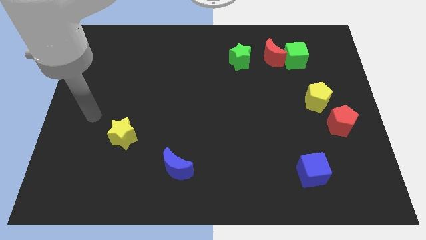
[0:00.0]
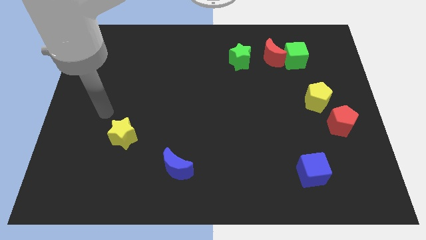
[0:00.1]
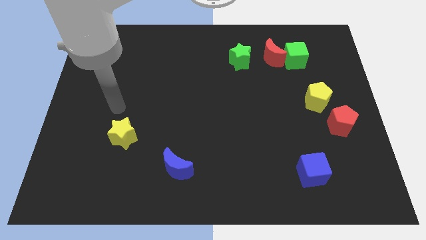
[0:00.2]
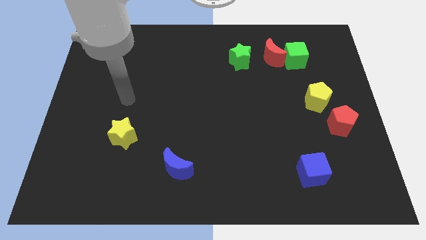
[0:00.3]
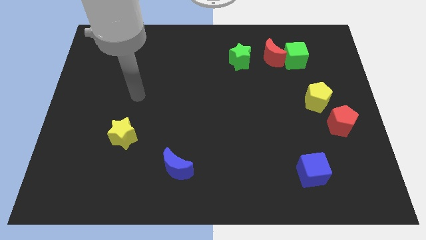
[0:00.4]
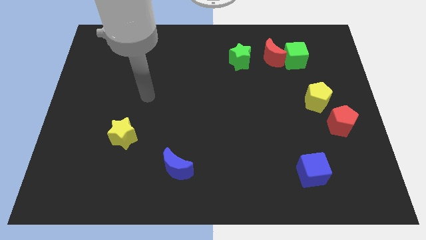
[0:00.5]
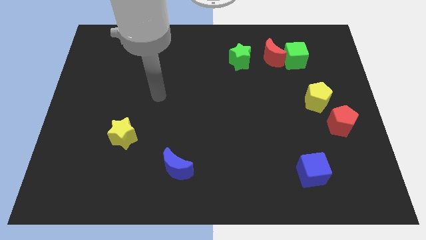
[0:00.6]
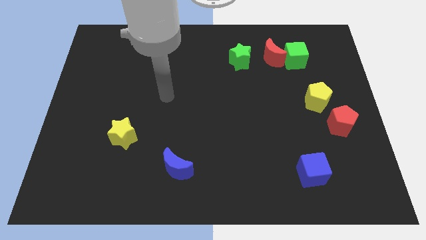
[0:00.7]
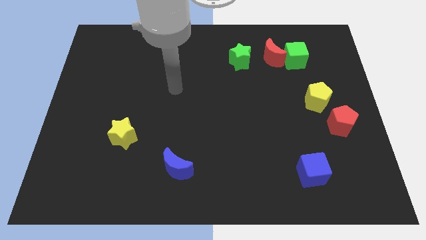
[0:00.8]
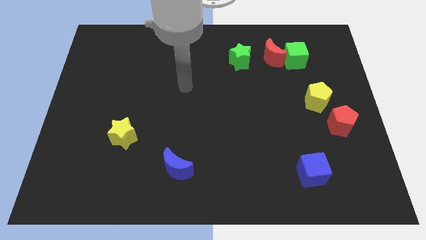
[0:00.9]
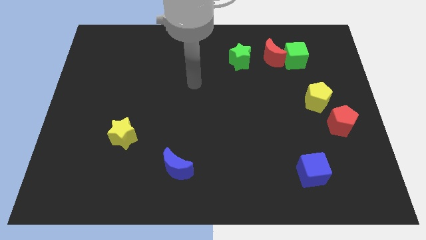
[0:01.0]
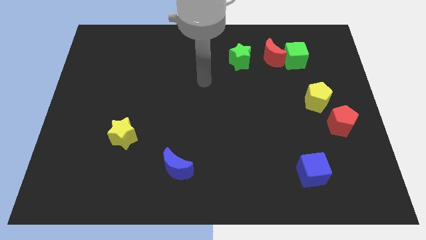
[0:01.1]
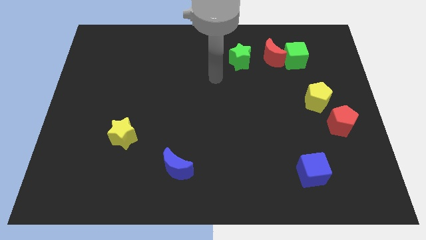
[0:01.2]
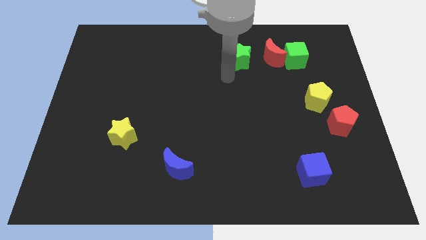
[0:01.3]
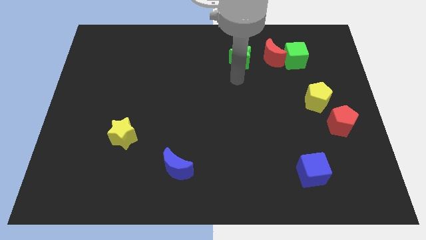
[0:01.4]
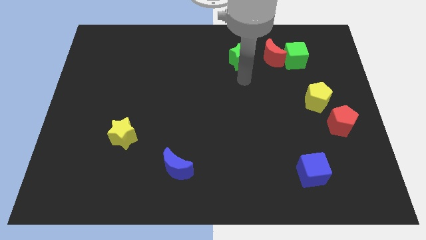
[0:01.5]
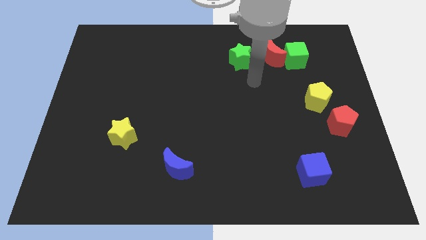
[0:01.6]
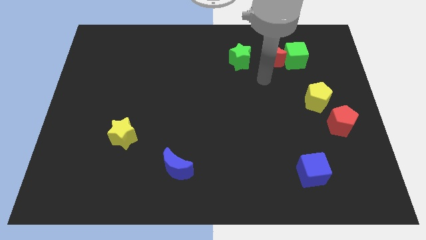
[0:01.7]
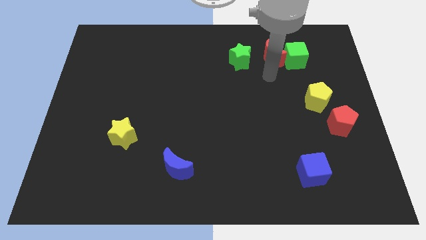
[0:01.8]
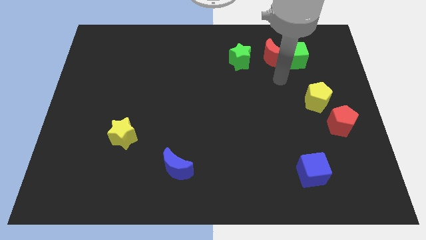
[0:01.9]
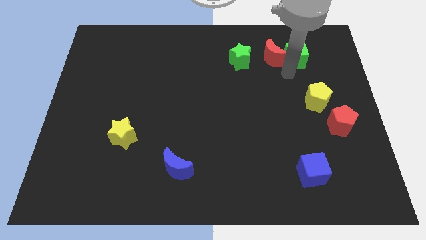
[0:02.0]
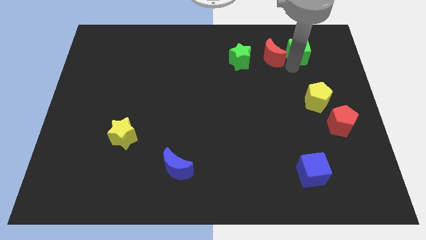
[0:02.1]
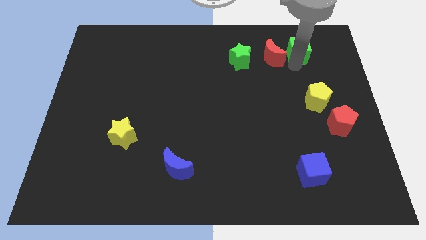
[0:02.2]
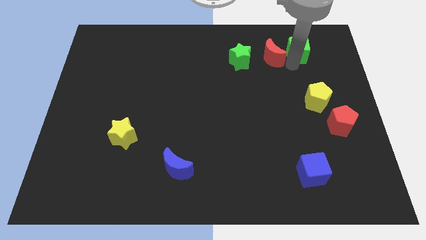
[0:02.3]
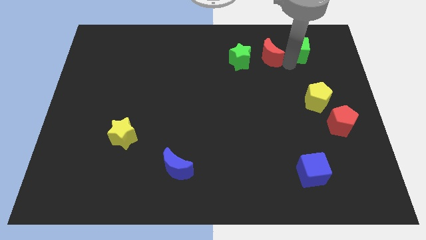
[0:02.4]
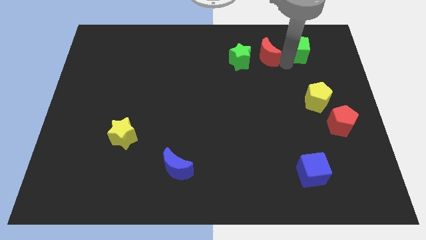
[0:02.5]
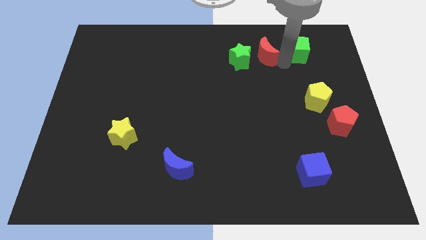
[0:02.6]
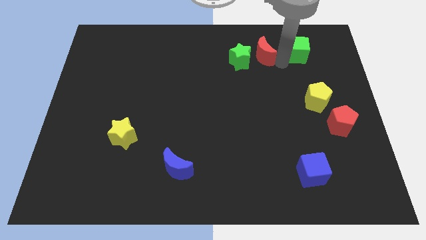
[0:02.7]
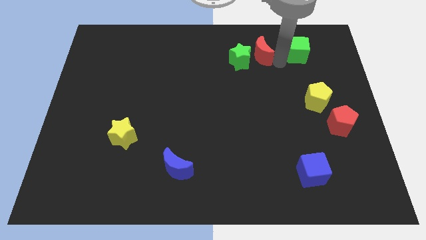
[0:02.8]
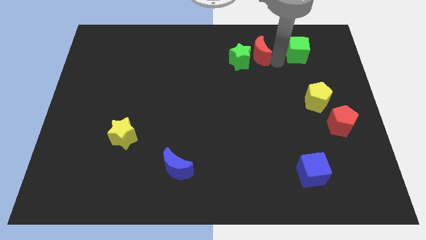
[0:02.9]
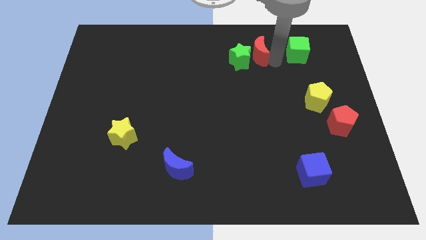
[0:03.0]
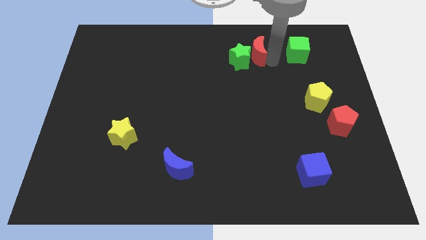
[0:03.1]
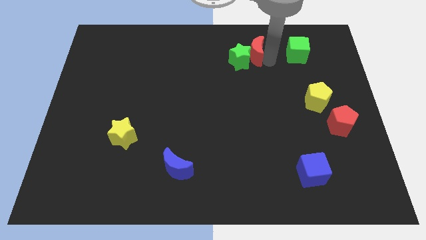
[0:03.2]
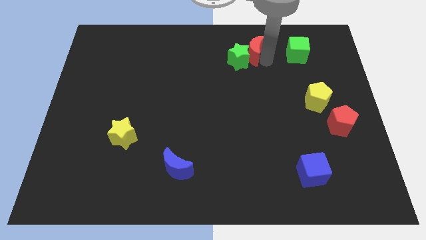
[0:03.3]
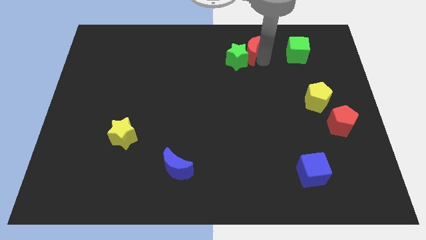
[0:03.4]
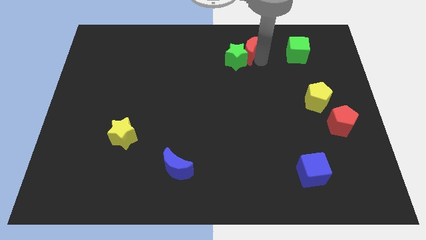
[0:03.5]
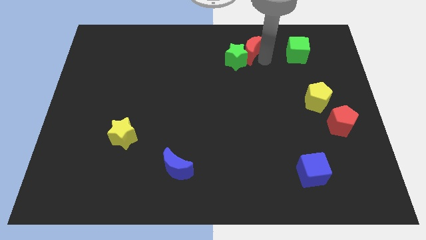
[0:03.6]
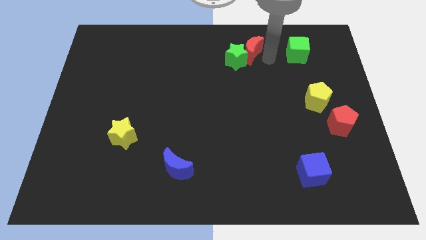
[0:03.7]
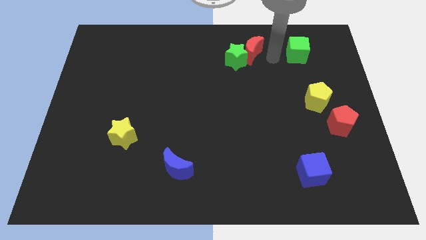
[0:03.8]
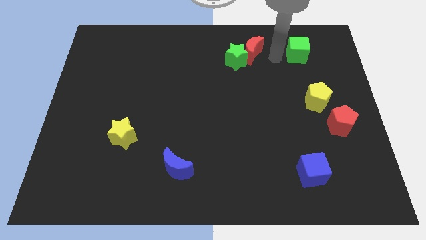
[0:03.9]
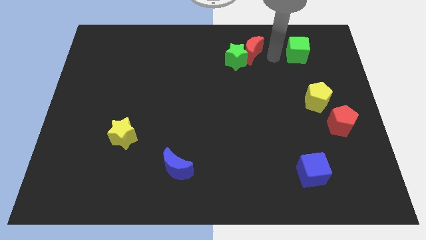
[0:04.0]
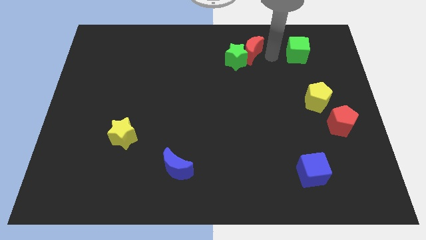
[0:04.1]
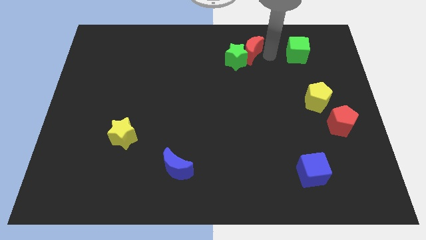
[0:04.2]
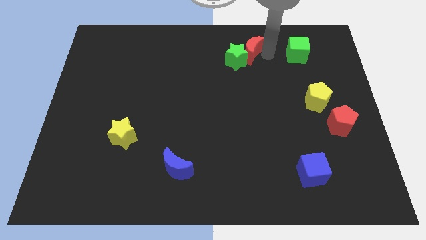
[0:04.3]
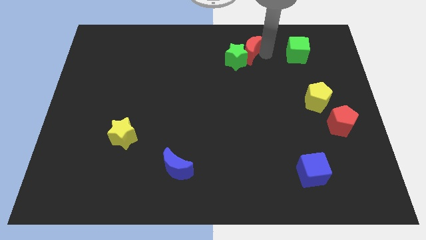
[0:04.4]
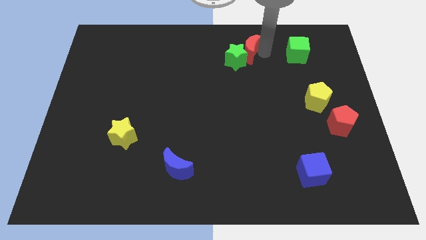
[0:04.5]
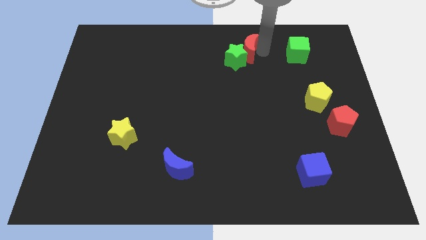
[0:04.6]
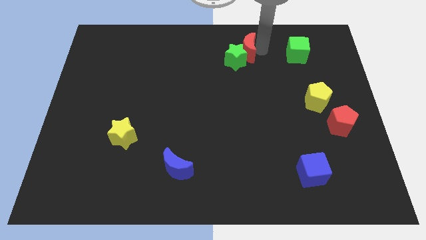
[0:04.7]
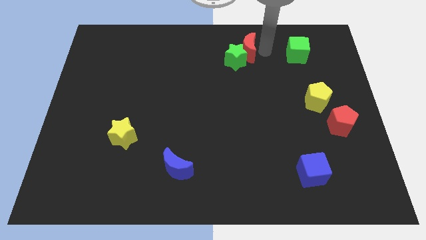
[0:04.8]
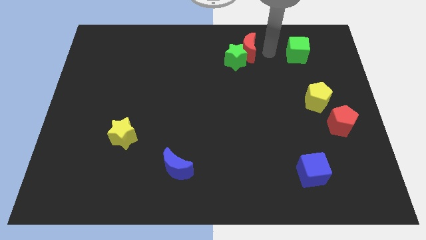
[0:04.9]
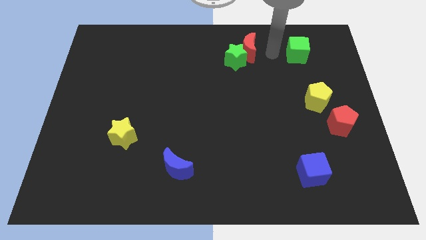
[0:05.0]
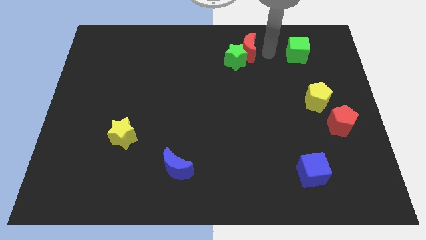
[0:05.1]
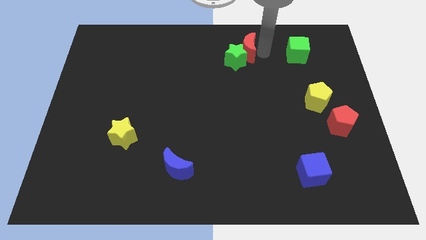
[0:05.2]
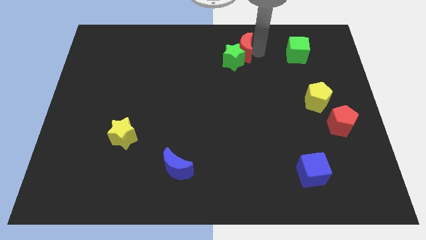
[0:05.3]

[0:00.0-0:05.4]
push the red moon a bit to the left

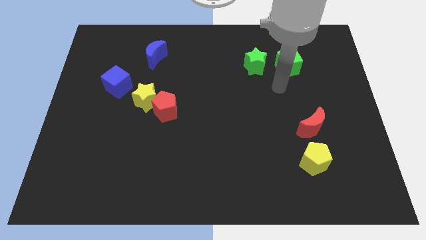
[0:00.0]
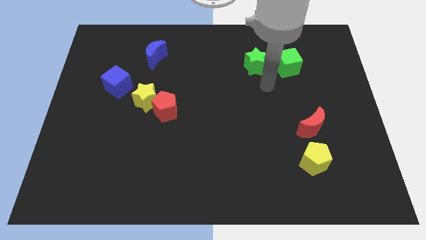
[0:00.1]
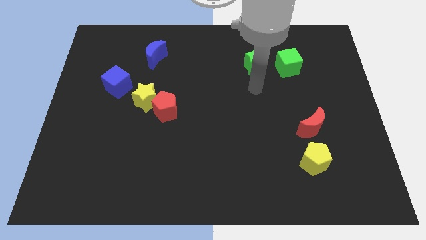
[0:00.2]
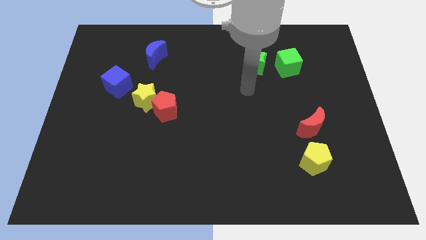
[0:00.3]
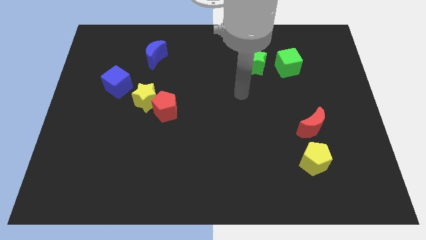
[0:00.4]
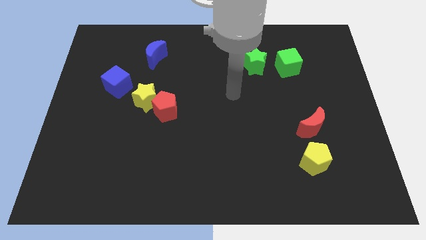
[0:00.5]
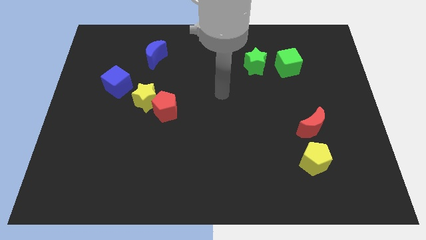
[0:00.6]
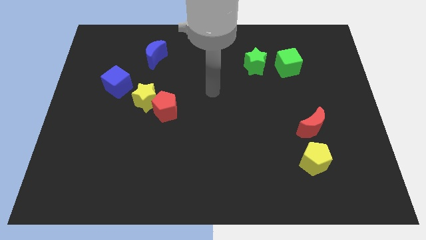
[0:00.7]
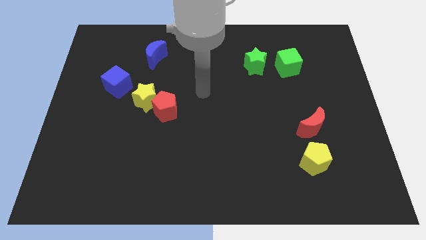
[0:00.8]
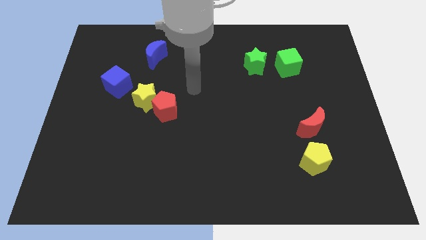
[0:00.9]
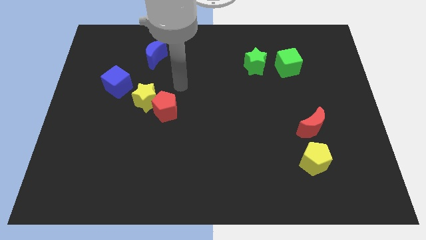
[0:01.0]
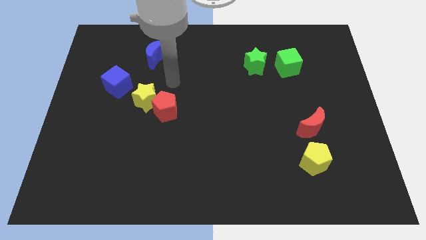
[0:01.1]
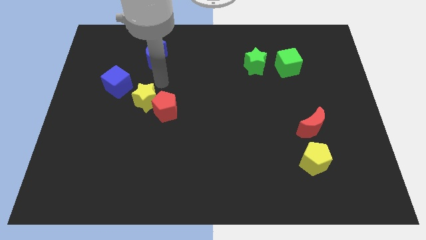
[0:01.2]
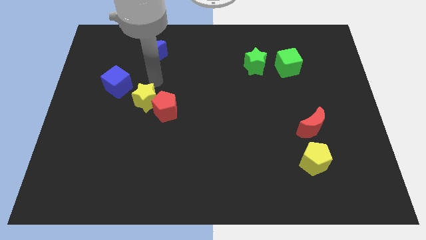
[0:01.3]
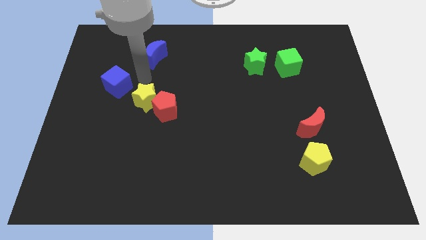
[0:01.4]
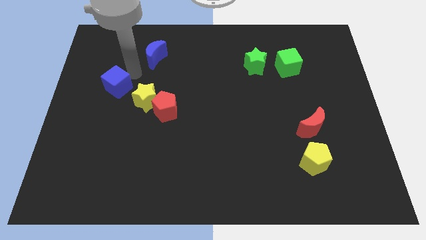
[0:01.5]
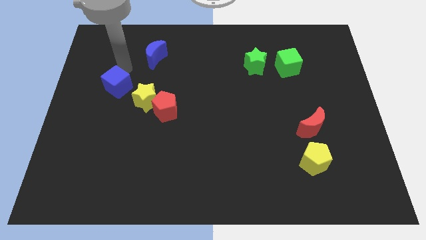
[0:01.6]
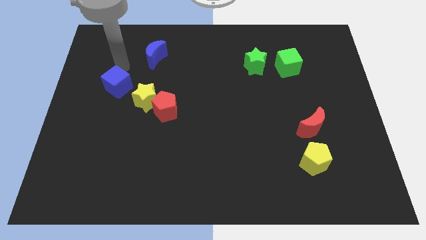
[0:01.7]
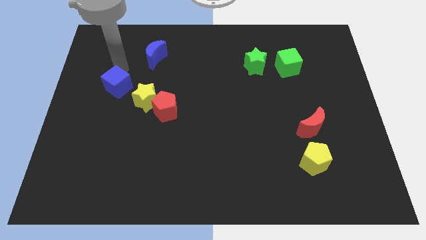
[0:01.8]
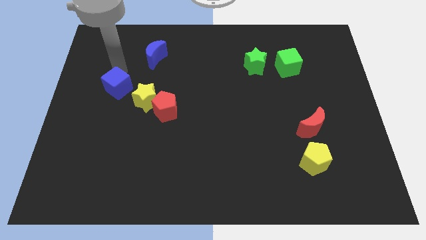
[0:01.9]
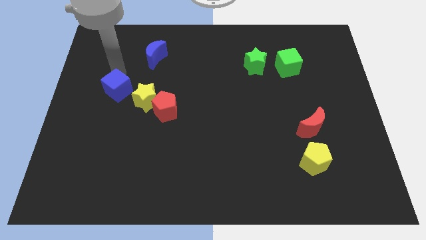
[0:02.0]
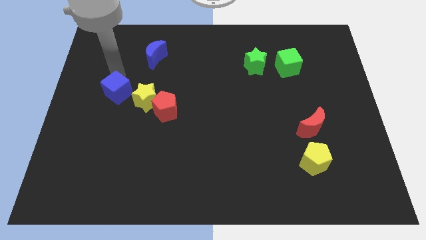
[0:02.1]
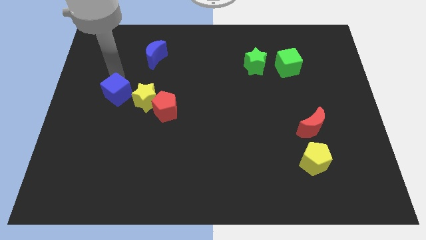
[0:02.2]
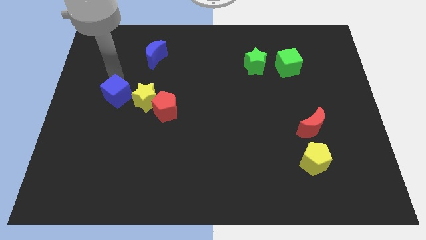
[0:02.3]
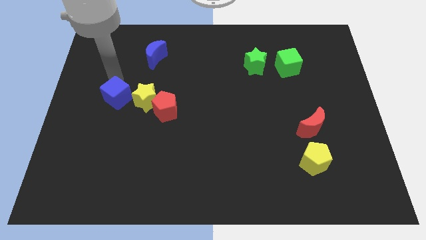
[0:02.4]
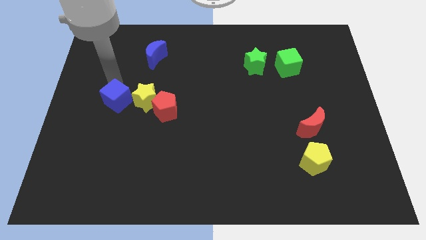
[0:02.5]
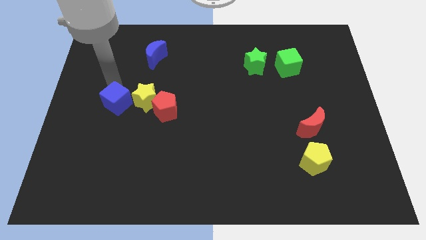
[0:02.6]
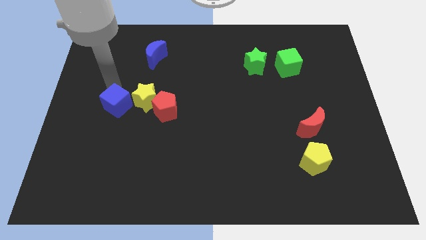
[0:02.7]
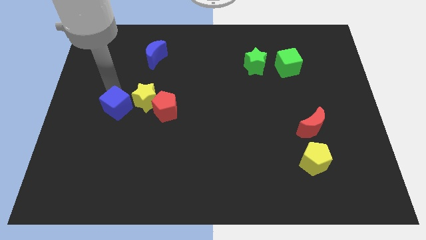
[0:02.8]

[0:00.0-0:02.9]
slide the blue cube a bit downwards
